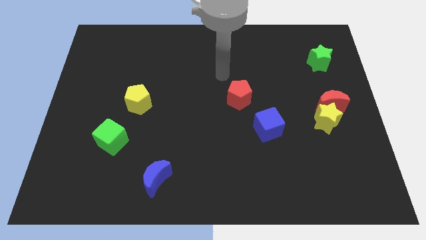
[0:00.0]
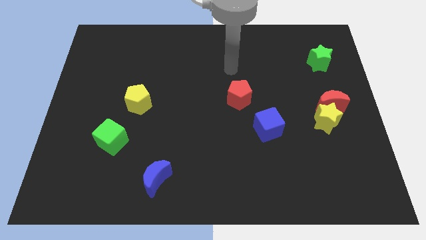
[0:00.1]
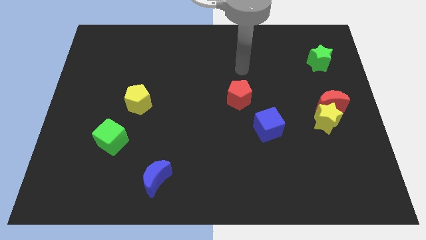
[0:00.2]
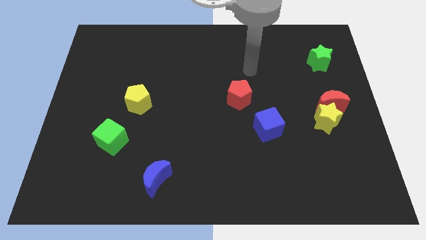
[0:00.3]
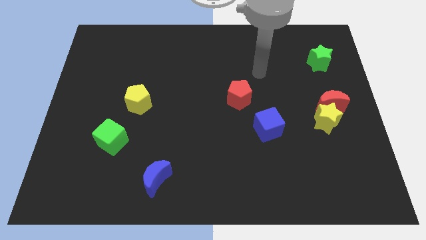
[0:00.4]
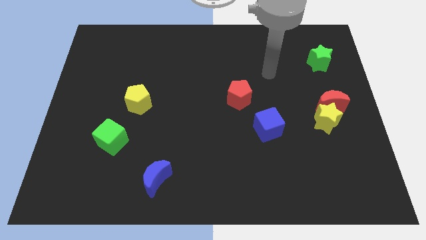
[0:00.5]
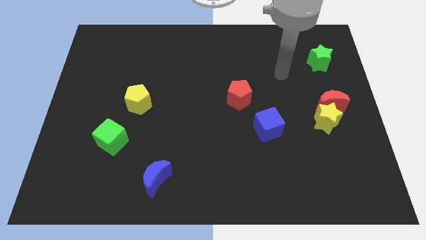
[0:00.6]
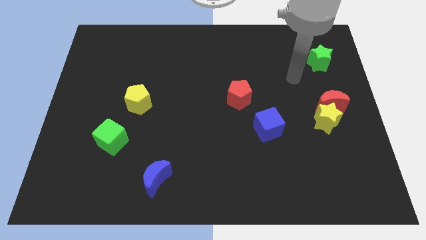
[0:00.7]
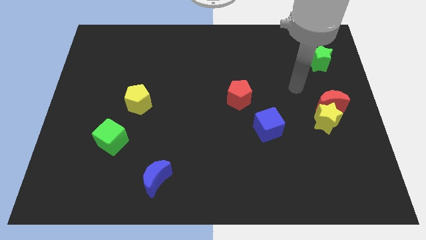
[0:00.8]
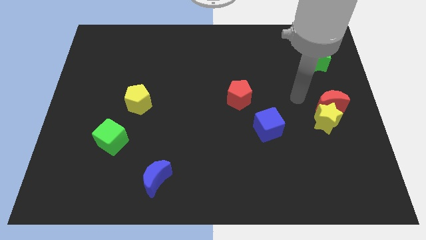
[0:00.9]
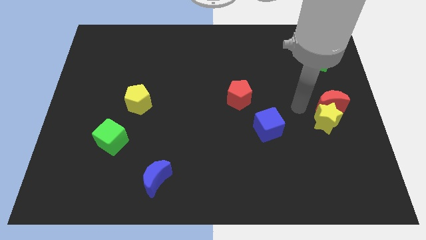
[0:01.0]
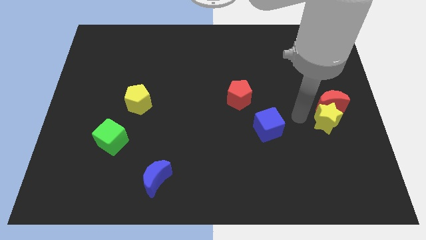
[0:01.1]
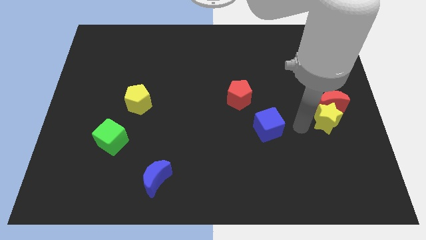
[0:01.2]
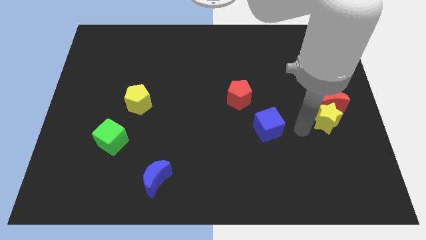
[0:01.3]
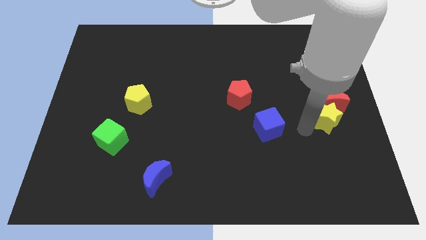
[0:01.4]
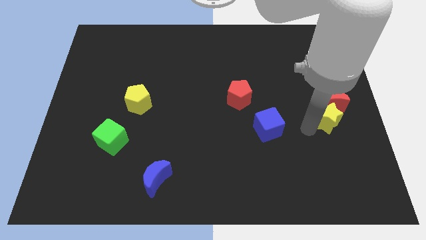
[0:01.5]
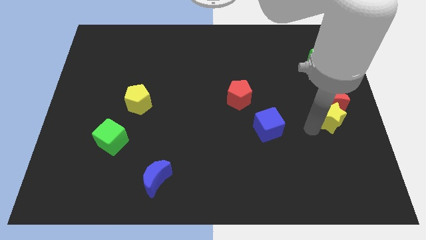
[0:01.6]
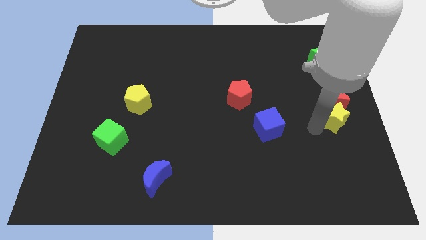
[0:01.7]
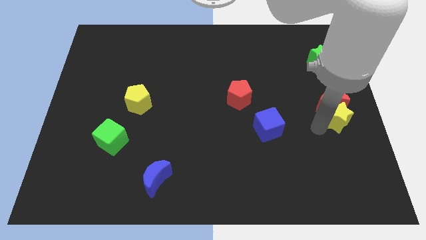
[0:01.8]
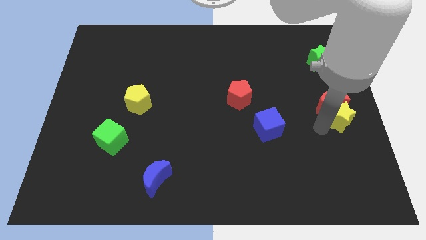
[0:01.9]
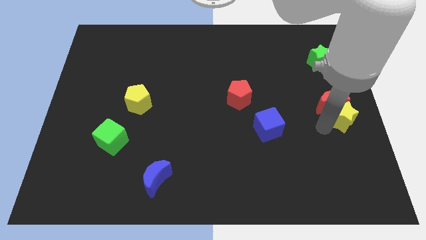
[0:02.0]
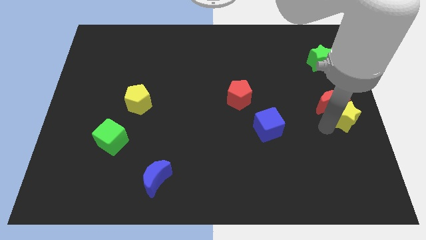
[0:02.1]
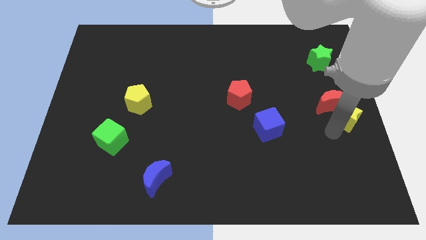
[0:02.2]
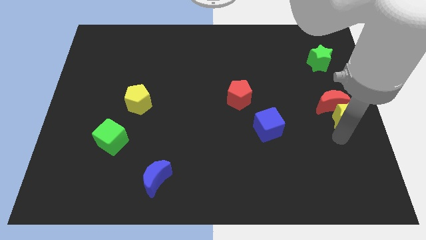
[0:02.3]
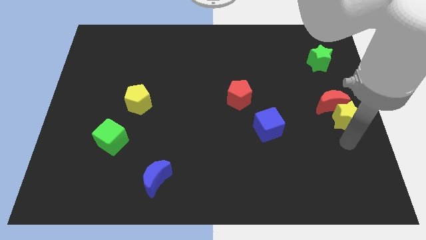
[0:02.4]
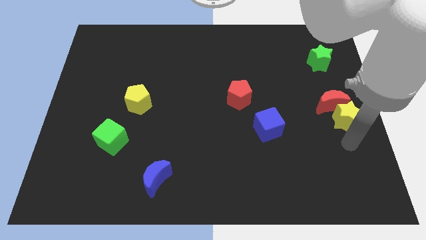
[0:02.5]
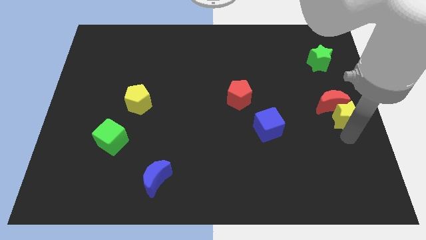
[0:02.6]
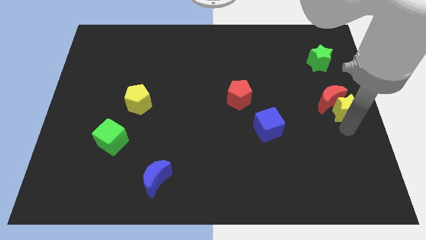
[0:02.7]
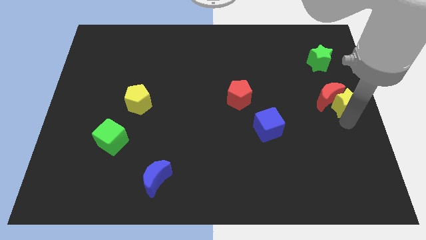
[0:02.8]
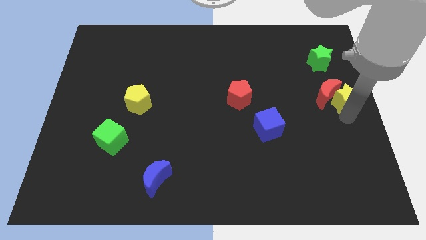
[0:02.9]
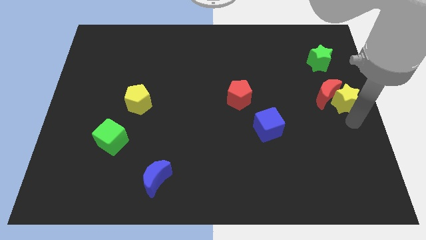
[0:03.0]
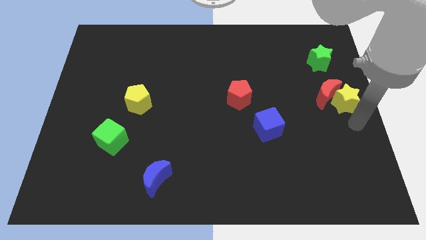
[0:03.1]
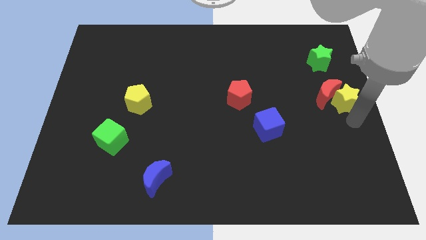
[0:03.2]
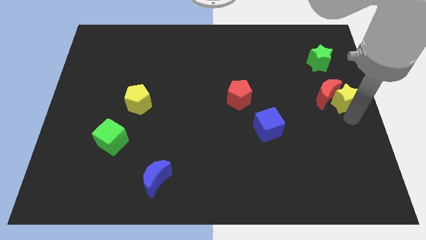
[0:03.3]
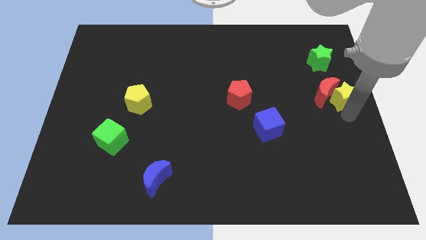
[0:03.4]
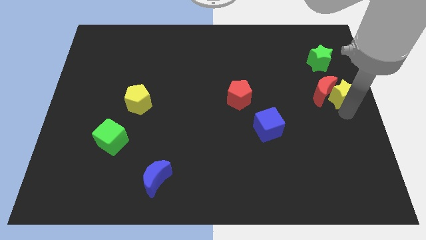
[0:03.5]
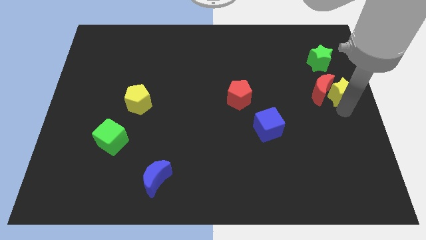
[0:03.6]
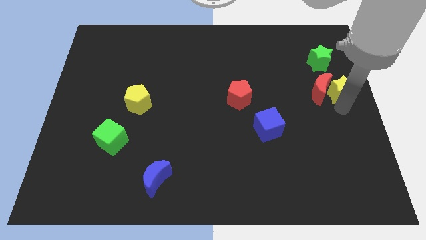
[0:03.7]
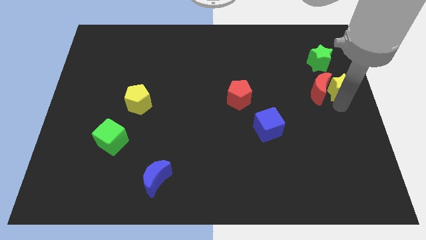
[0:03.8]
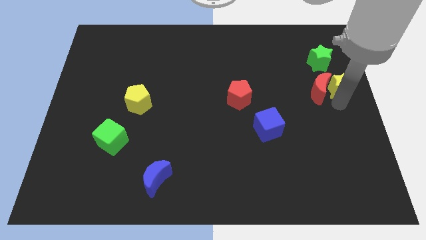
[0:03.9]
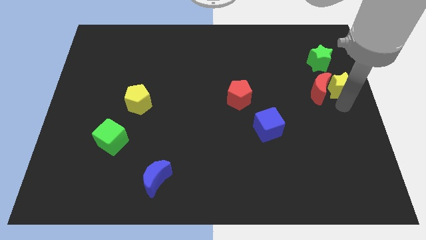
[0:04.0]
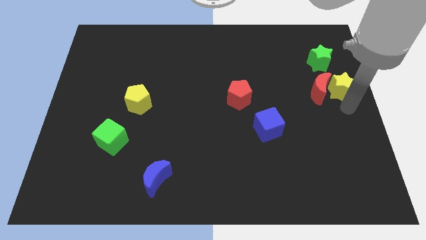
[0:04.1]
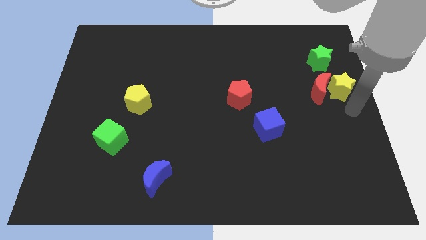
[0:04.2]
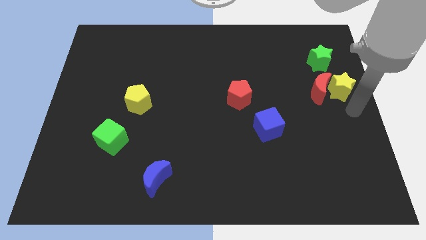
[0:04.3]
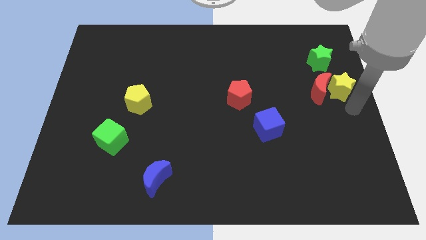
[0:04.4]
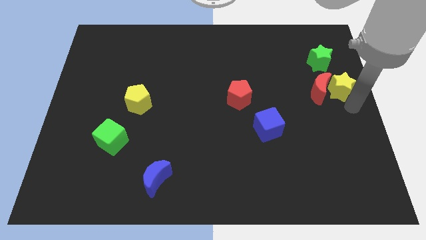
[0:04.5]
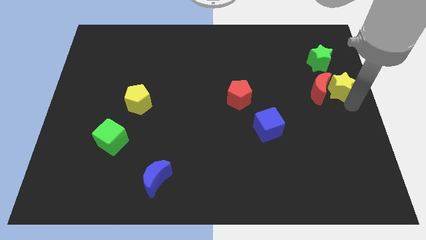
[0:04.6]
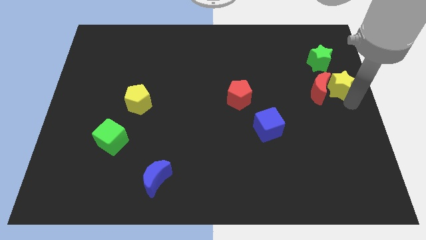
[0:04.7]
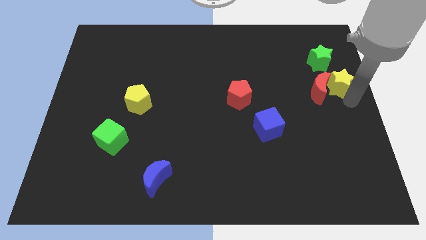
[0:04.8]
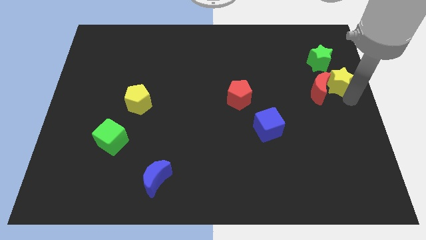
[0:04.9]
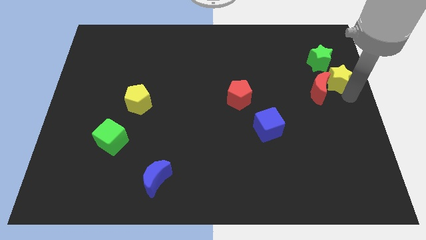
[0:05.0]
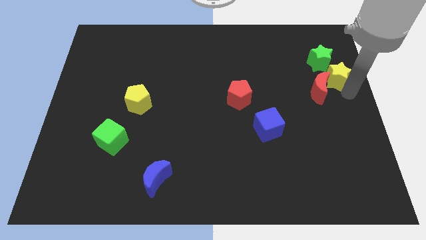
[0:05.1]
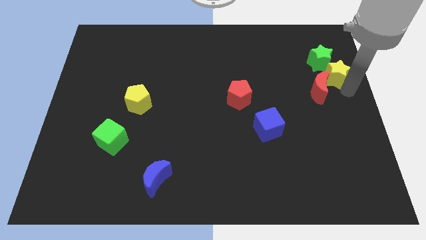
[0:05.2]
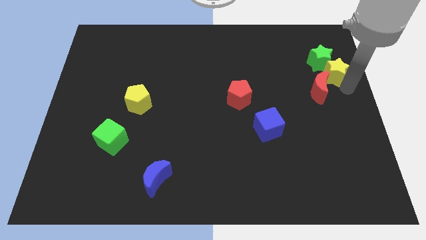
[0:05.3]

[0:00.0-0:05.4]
put the yellow star close to the green star

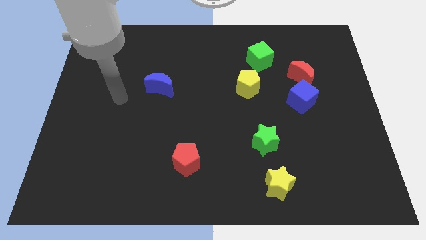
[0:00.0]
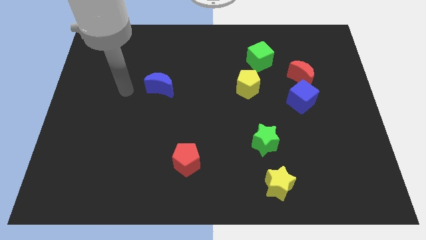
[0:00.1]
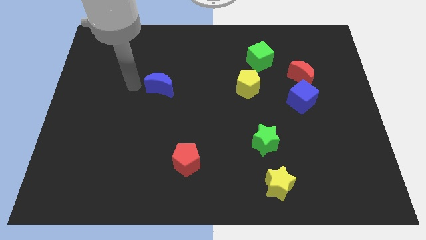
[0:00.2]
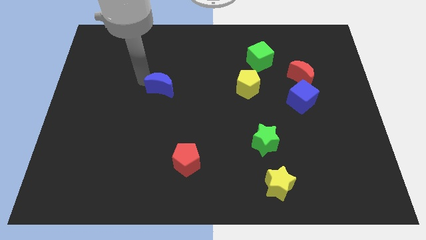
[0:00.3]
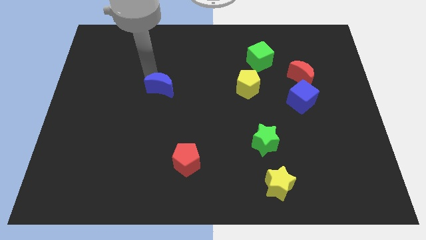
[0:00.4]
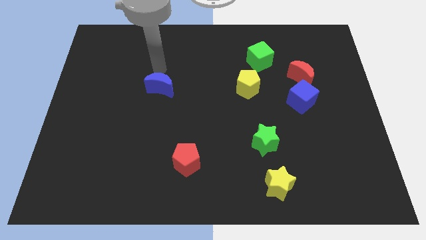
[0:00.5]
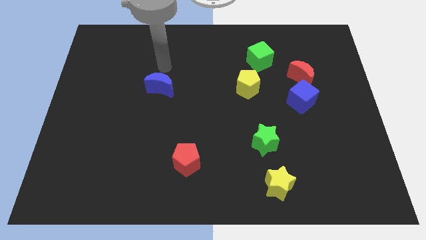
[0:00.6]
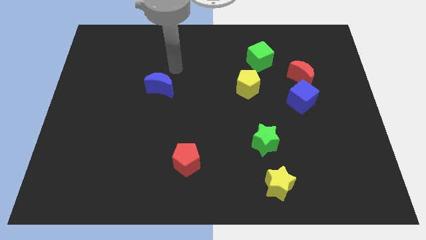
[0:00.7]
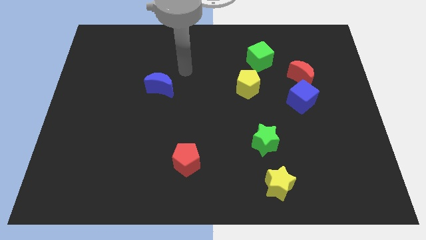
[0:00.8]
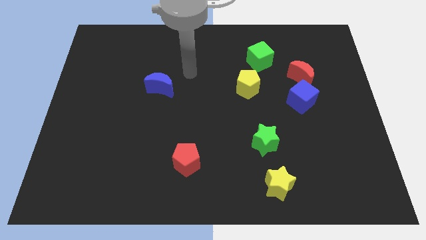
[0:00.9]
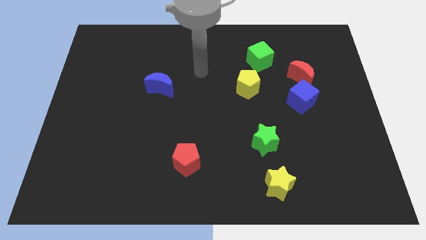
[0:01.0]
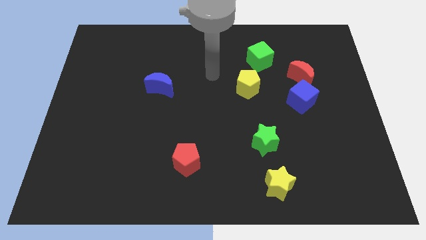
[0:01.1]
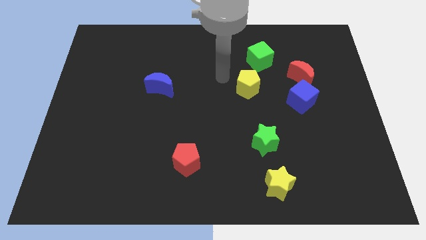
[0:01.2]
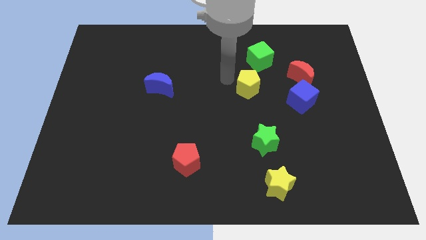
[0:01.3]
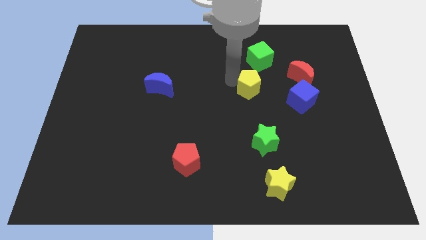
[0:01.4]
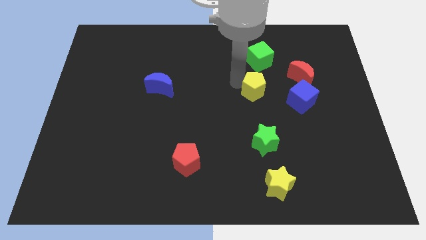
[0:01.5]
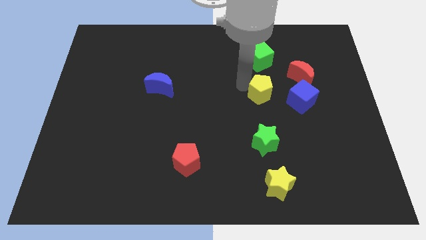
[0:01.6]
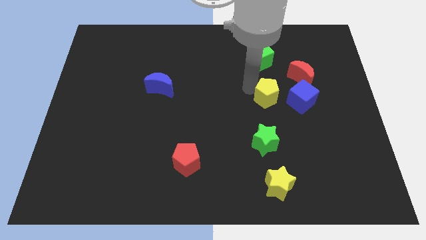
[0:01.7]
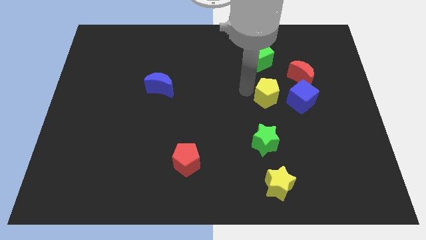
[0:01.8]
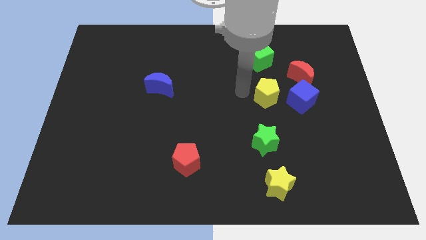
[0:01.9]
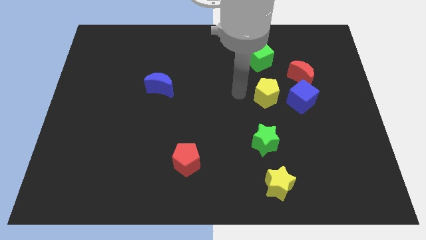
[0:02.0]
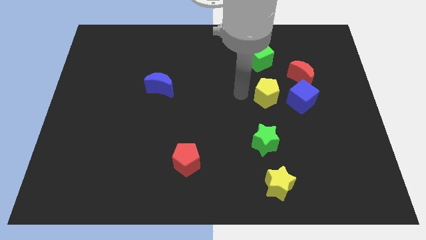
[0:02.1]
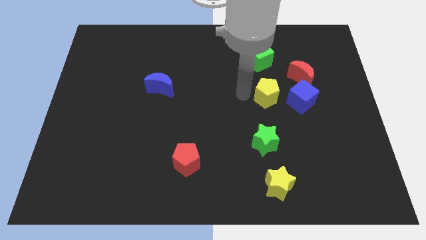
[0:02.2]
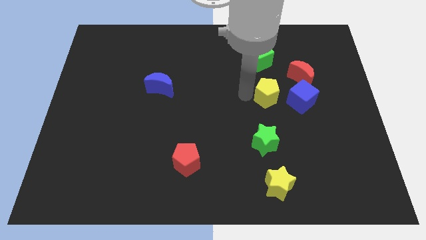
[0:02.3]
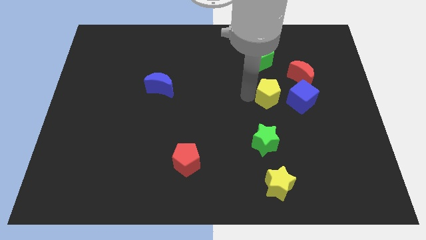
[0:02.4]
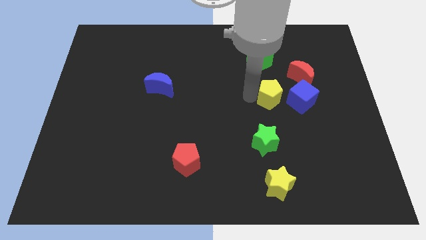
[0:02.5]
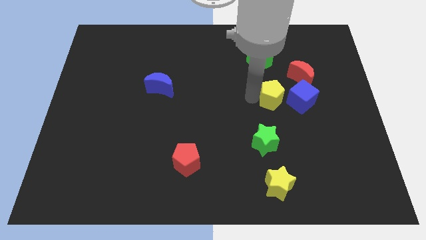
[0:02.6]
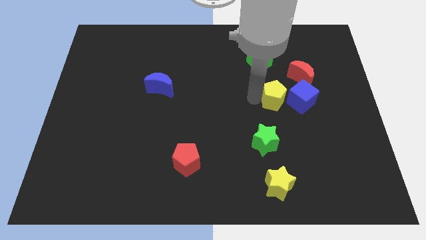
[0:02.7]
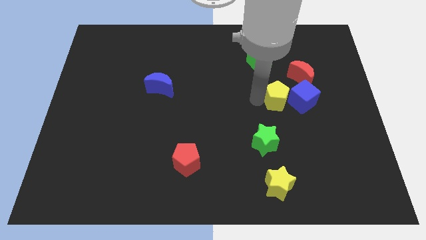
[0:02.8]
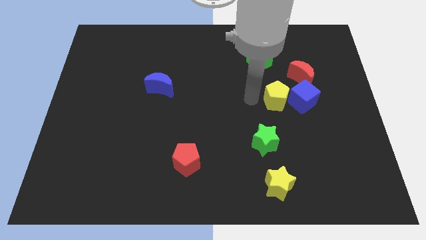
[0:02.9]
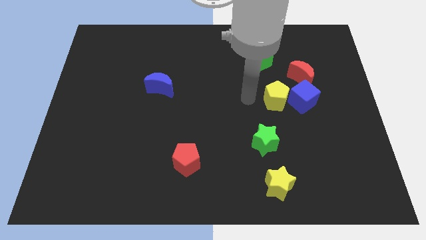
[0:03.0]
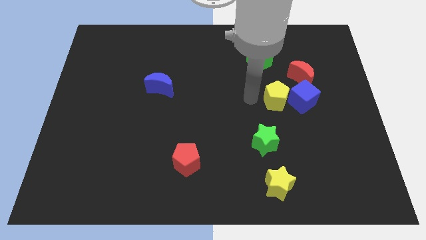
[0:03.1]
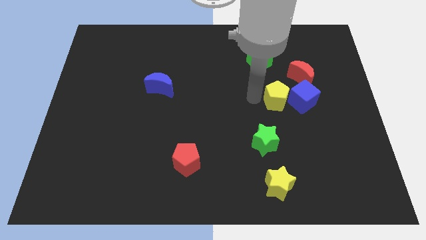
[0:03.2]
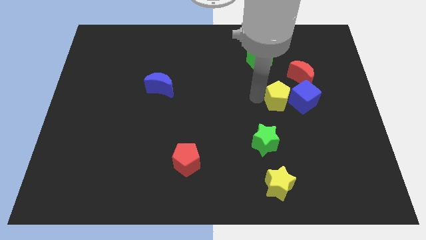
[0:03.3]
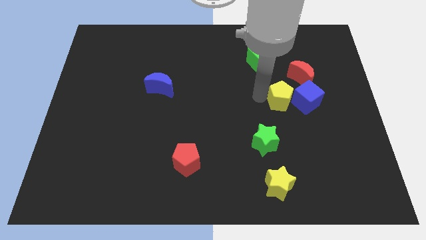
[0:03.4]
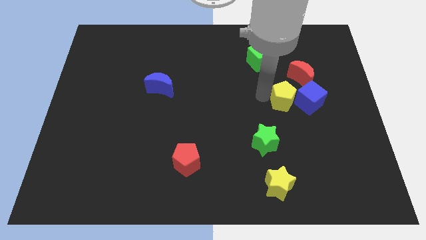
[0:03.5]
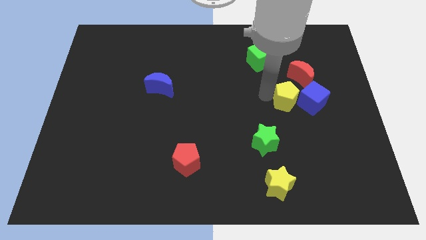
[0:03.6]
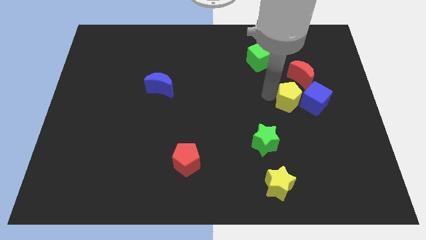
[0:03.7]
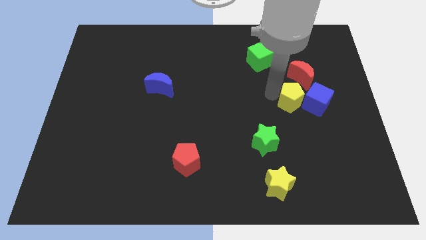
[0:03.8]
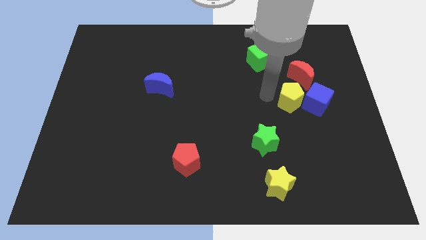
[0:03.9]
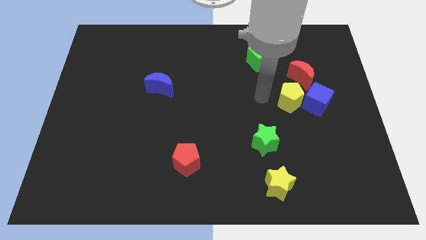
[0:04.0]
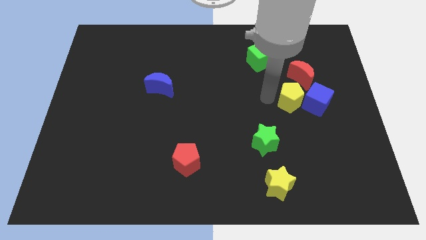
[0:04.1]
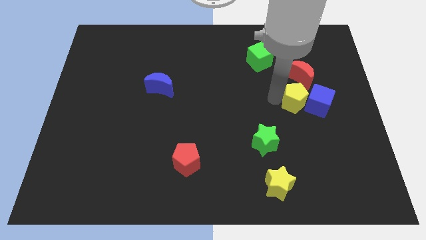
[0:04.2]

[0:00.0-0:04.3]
push the yellow pentagon towards the blue cube
